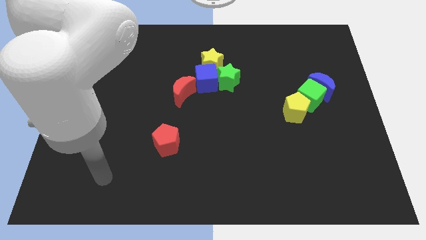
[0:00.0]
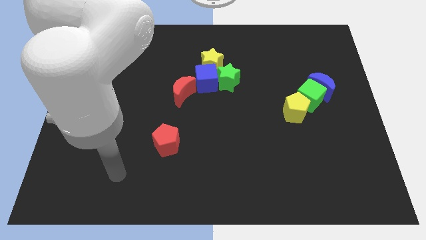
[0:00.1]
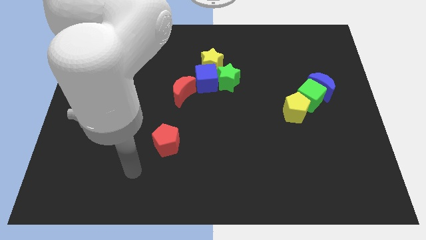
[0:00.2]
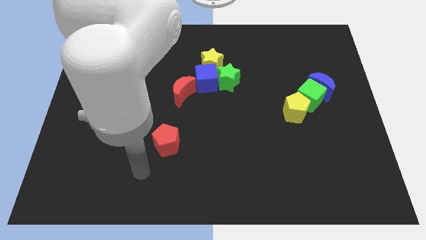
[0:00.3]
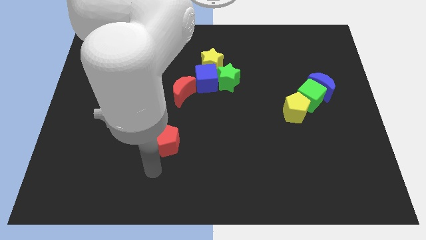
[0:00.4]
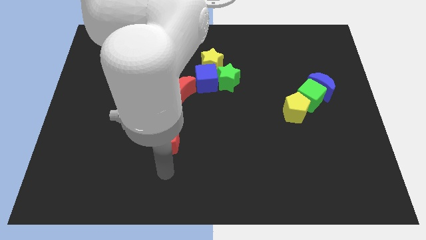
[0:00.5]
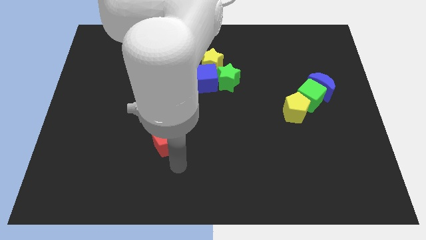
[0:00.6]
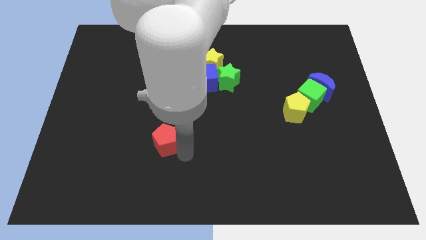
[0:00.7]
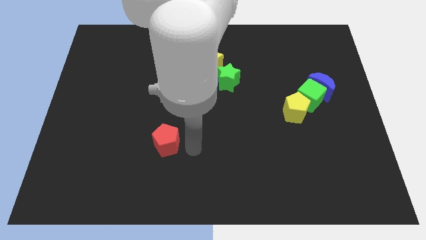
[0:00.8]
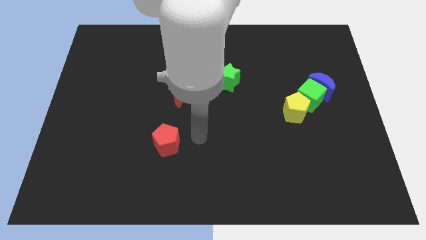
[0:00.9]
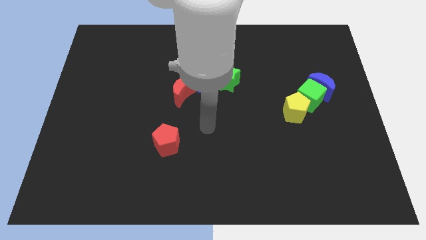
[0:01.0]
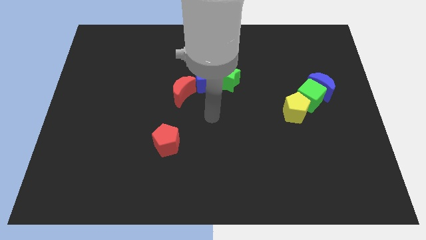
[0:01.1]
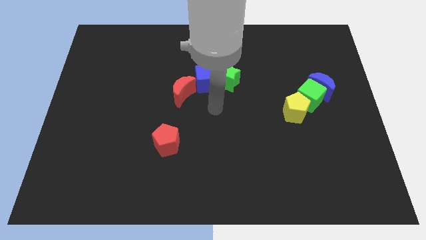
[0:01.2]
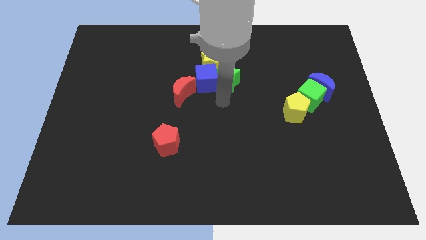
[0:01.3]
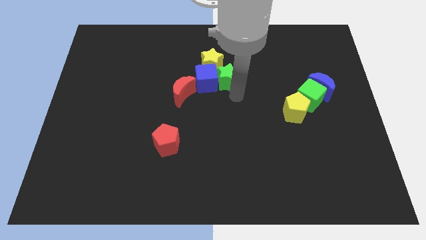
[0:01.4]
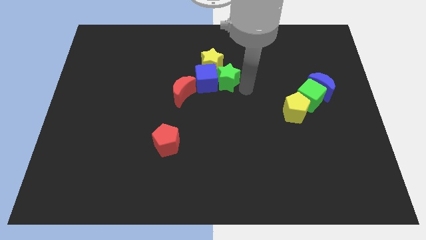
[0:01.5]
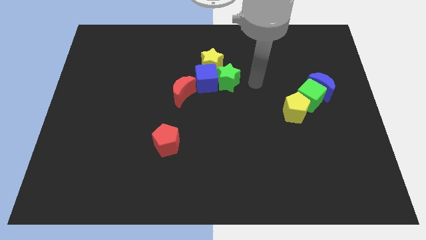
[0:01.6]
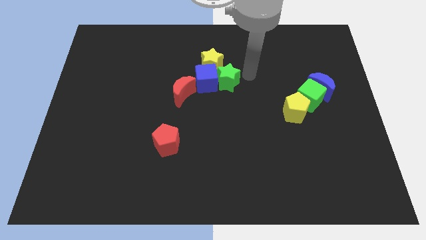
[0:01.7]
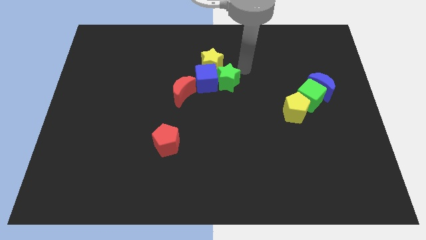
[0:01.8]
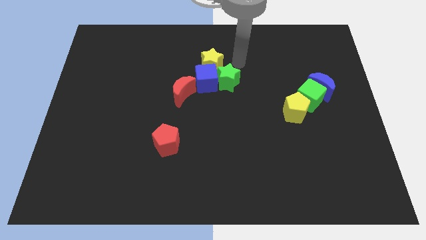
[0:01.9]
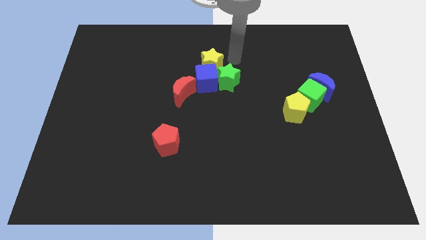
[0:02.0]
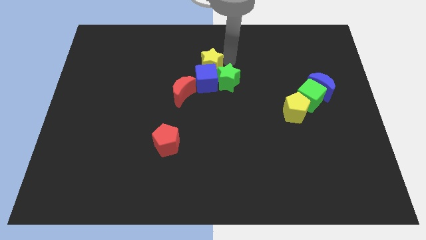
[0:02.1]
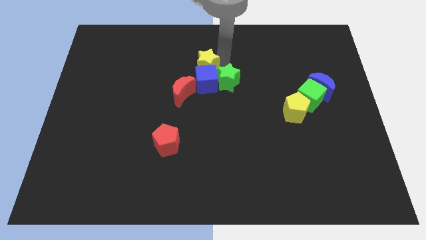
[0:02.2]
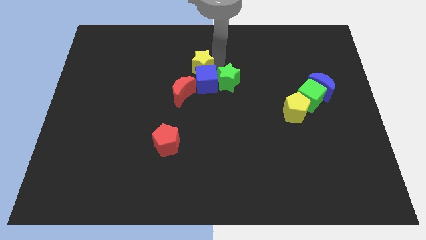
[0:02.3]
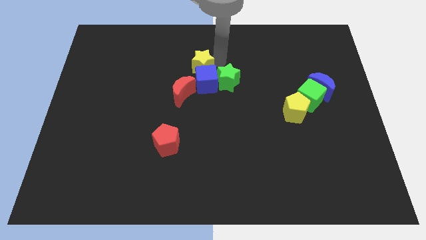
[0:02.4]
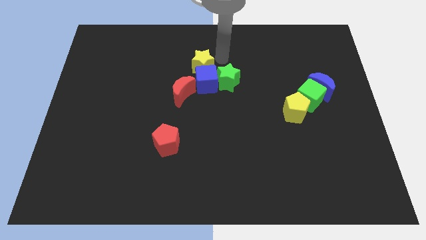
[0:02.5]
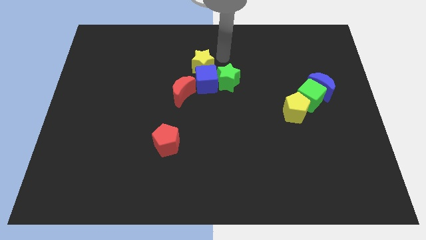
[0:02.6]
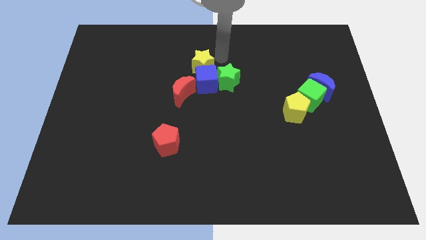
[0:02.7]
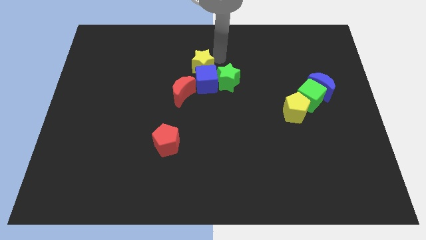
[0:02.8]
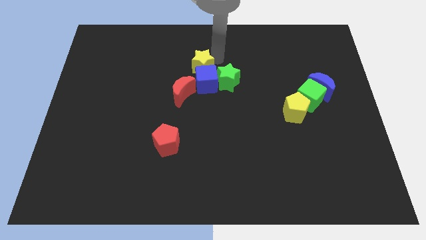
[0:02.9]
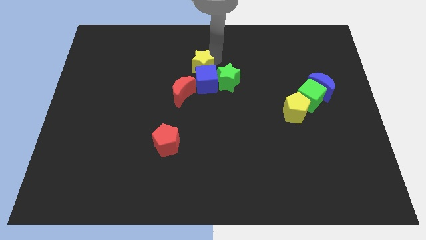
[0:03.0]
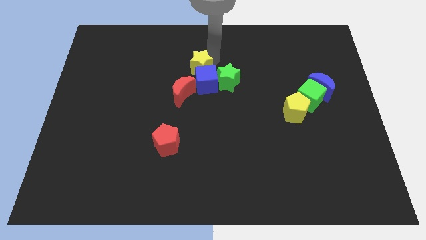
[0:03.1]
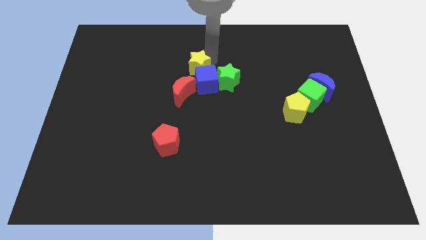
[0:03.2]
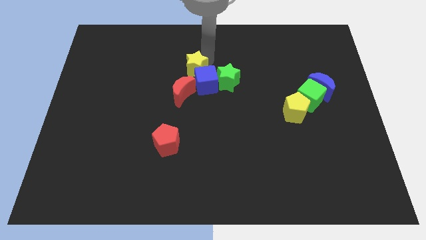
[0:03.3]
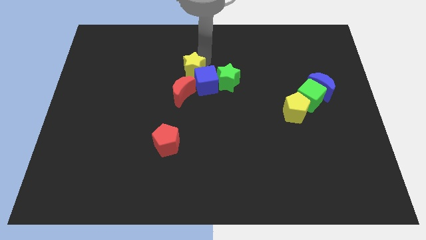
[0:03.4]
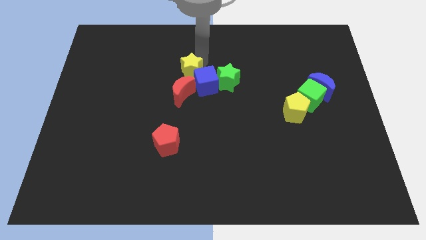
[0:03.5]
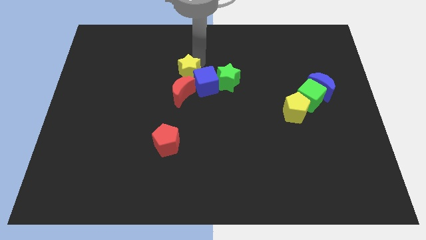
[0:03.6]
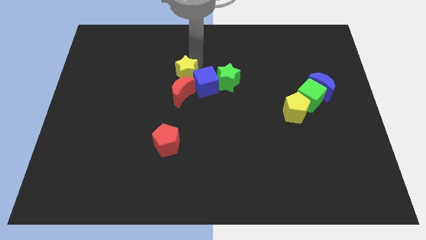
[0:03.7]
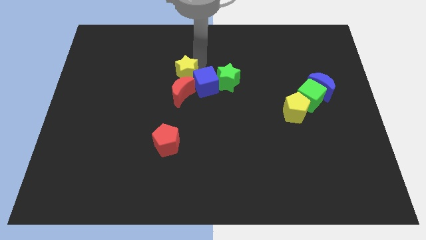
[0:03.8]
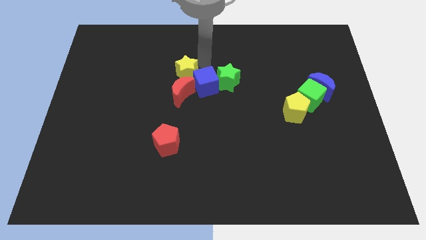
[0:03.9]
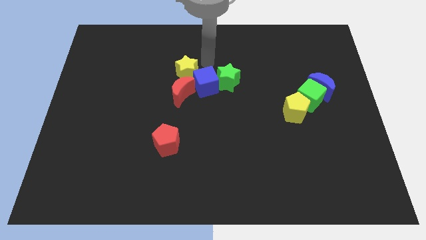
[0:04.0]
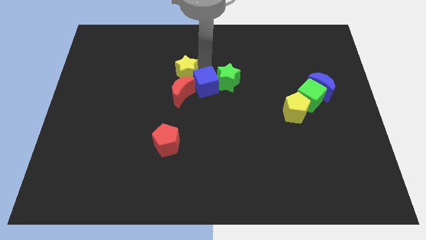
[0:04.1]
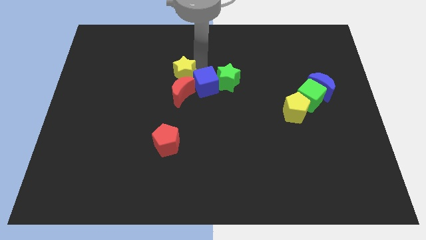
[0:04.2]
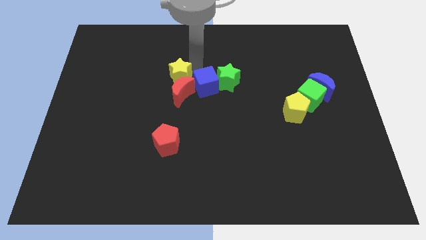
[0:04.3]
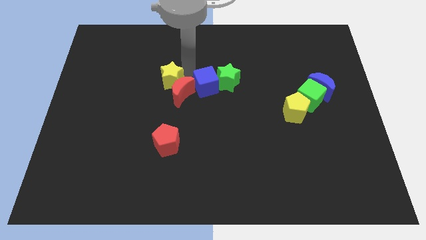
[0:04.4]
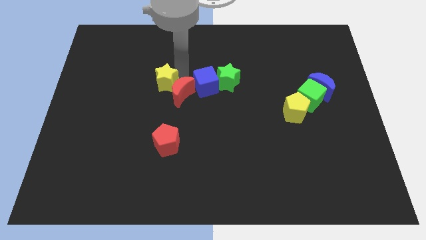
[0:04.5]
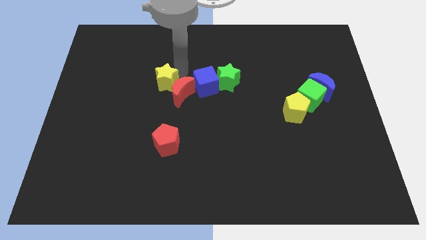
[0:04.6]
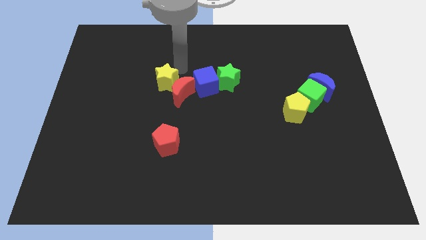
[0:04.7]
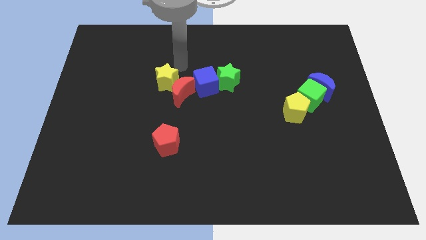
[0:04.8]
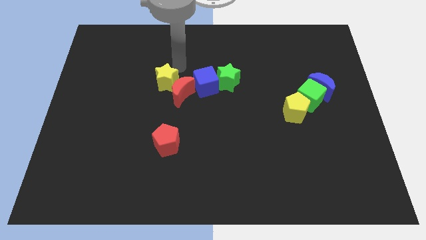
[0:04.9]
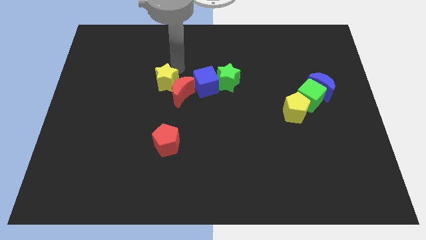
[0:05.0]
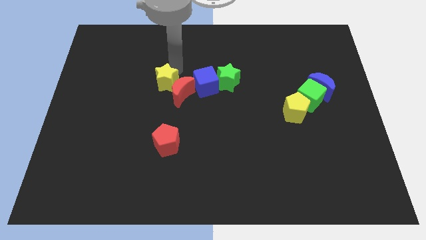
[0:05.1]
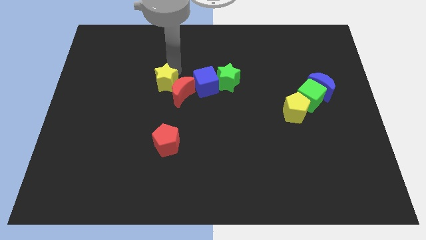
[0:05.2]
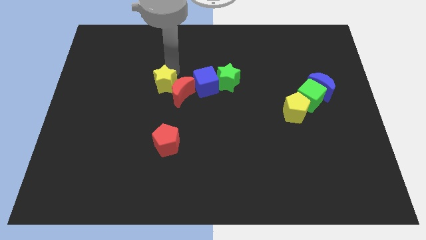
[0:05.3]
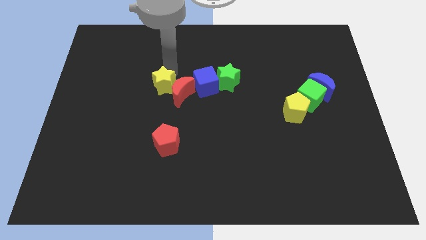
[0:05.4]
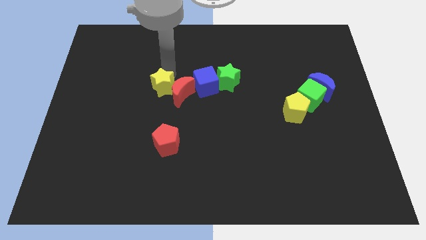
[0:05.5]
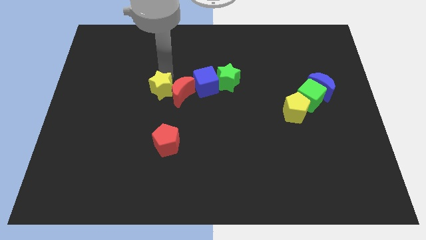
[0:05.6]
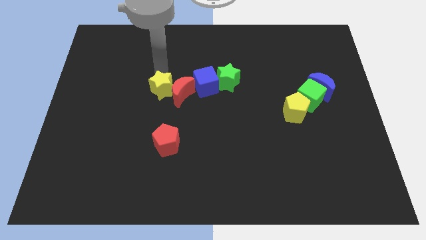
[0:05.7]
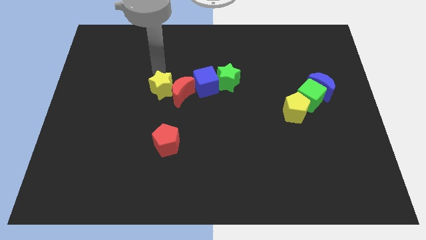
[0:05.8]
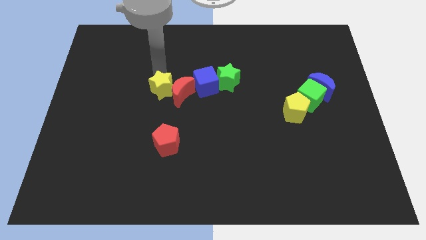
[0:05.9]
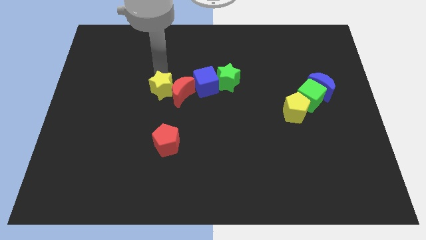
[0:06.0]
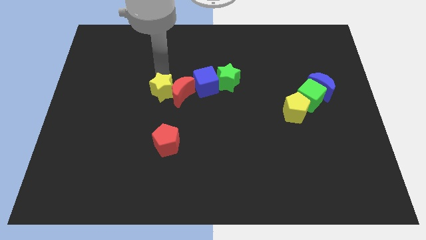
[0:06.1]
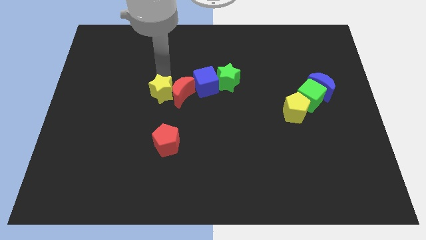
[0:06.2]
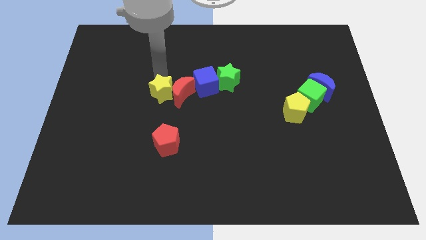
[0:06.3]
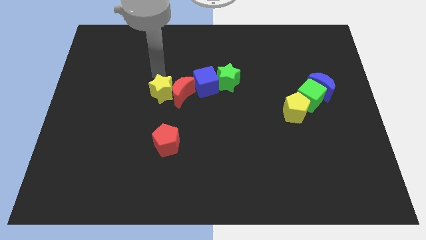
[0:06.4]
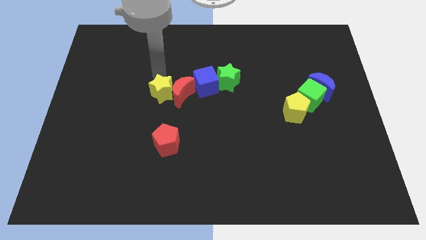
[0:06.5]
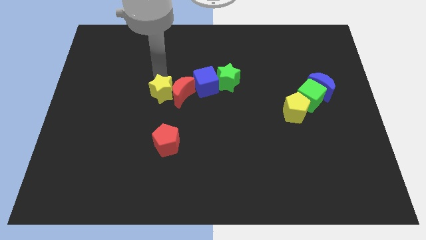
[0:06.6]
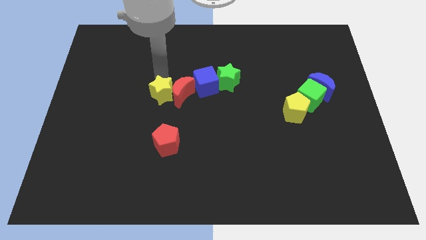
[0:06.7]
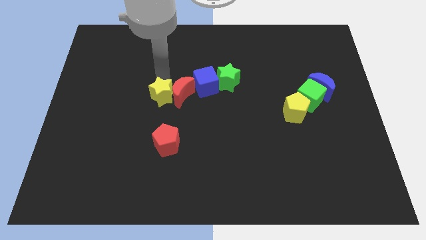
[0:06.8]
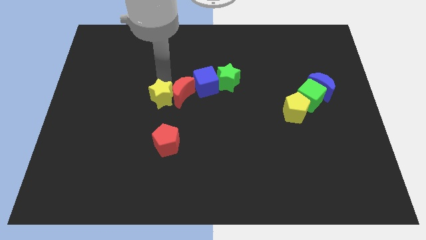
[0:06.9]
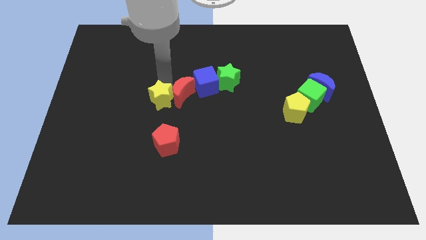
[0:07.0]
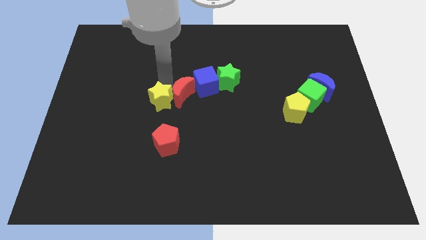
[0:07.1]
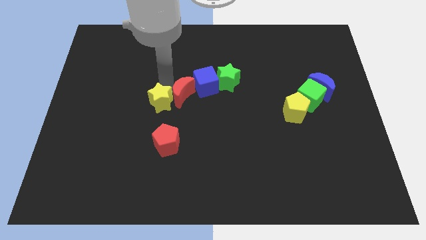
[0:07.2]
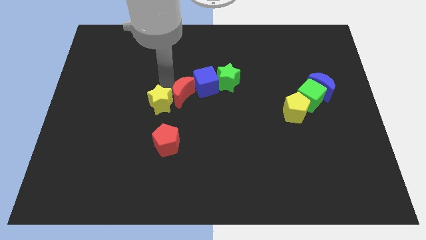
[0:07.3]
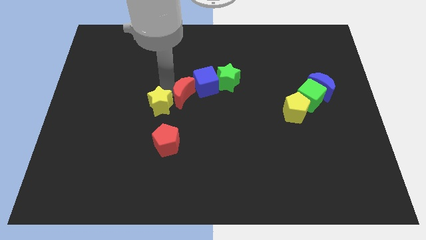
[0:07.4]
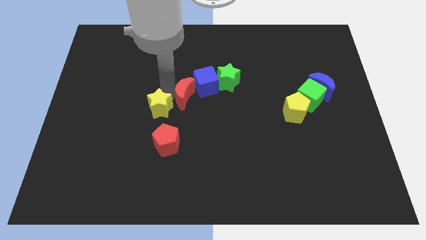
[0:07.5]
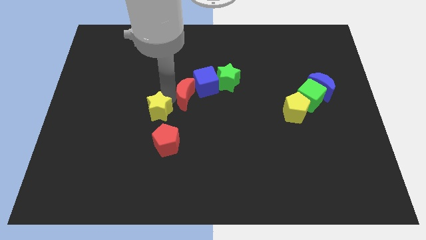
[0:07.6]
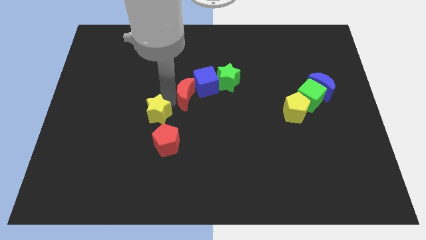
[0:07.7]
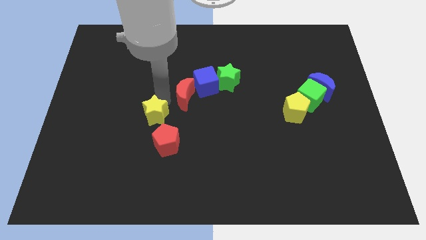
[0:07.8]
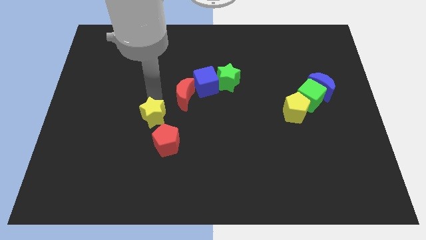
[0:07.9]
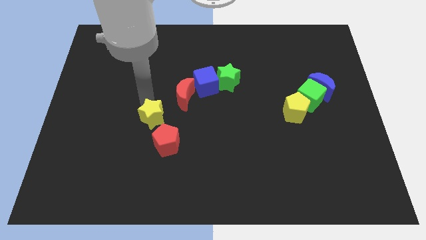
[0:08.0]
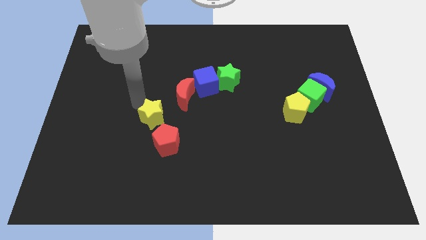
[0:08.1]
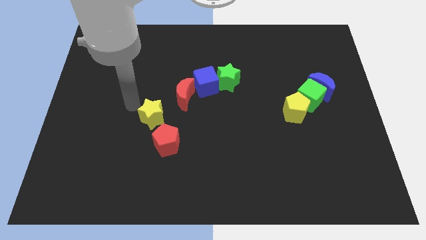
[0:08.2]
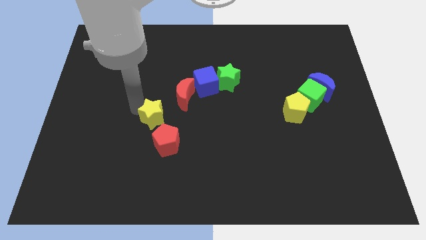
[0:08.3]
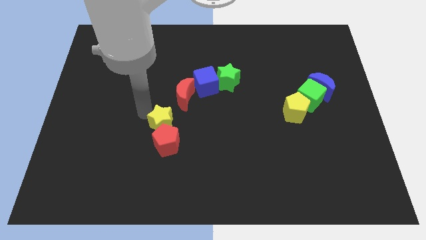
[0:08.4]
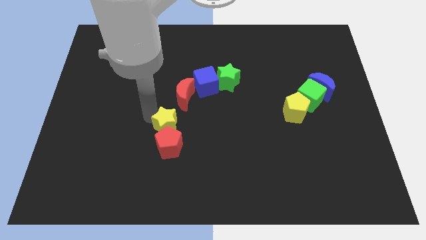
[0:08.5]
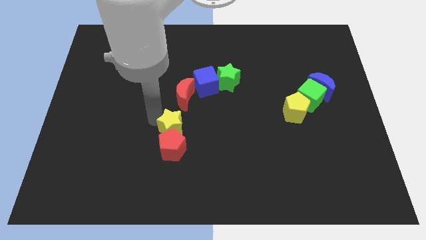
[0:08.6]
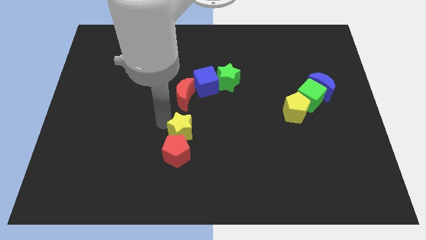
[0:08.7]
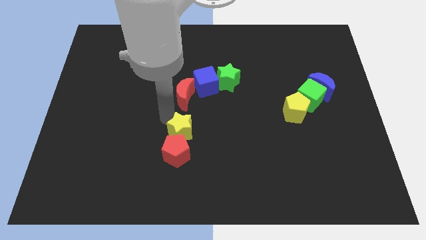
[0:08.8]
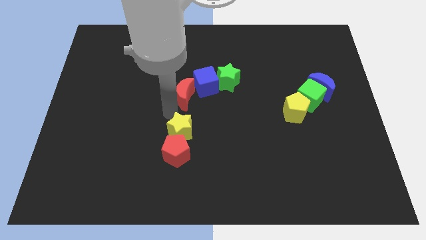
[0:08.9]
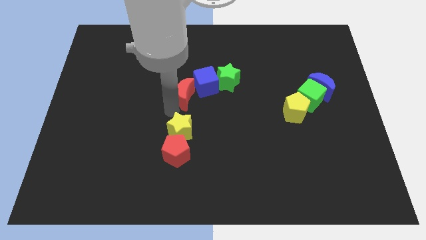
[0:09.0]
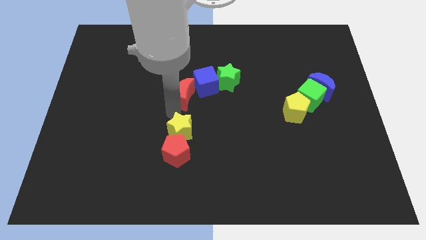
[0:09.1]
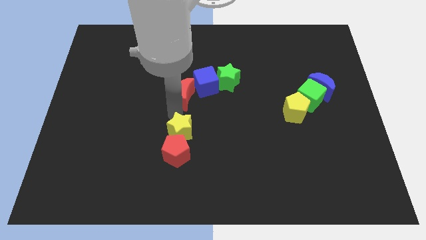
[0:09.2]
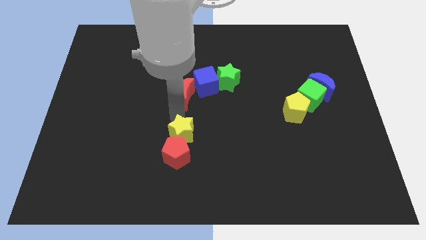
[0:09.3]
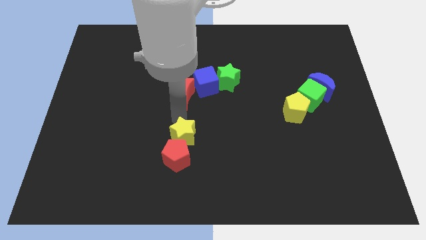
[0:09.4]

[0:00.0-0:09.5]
slide the yellow star downwards
